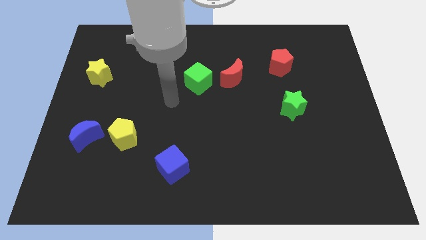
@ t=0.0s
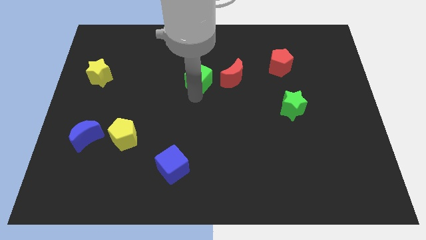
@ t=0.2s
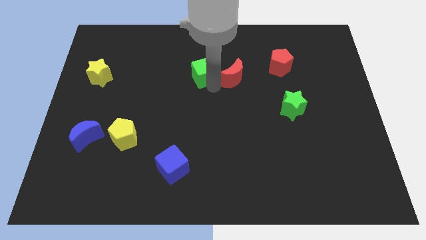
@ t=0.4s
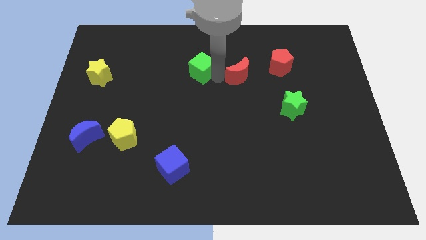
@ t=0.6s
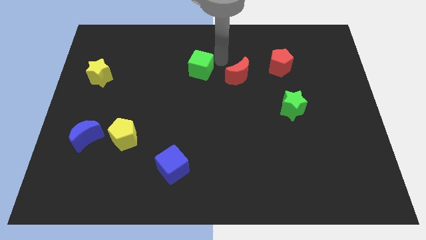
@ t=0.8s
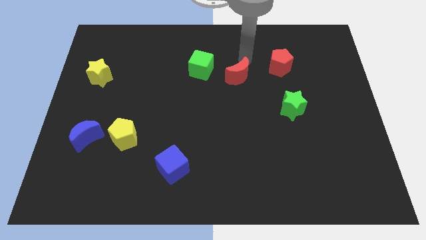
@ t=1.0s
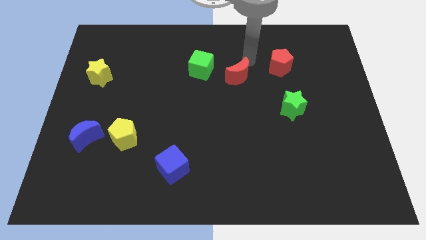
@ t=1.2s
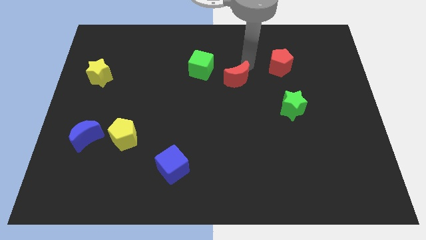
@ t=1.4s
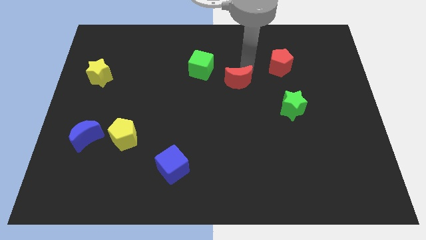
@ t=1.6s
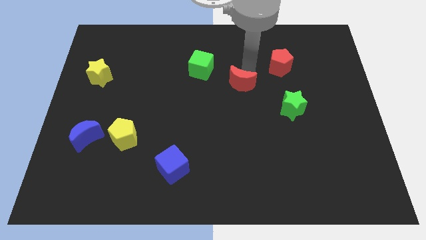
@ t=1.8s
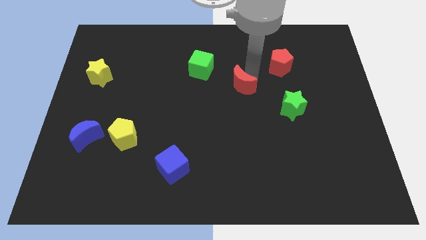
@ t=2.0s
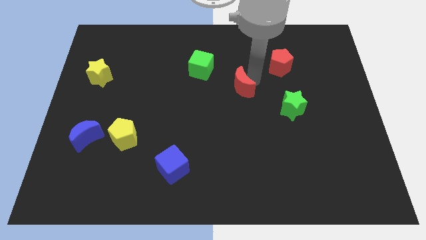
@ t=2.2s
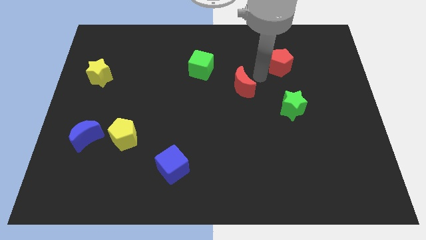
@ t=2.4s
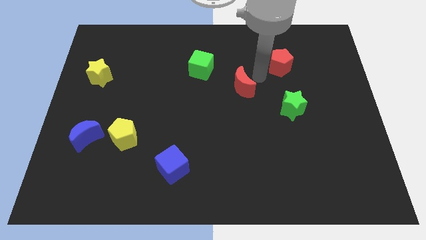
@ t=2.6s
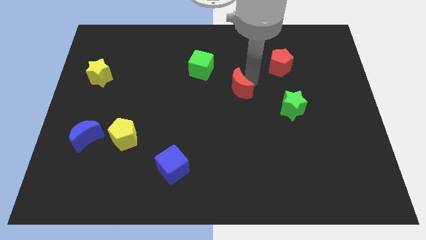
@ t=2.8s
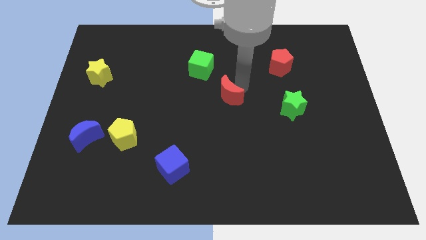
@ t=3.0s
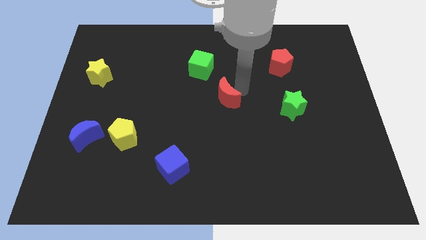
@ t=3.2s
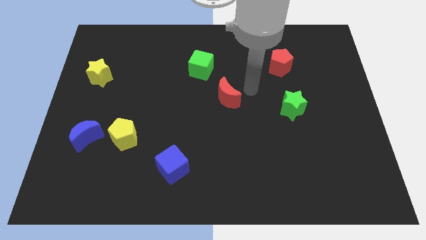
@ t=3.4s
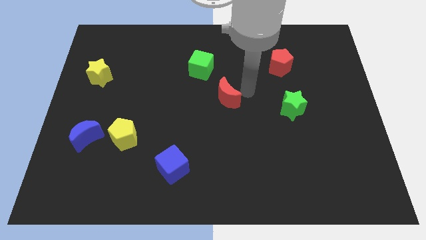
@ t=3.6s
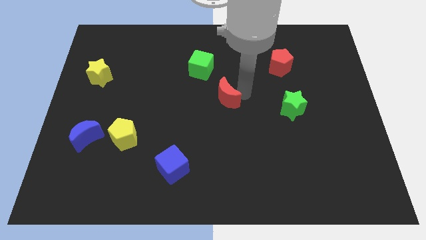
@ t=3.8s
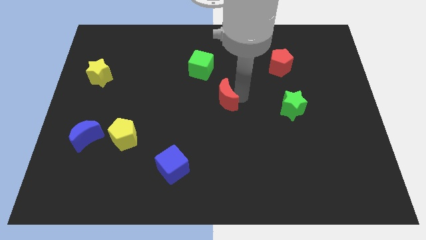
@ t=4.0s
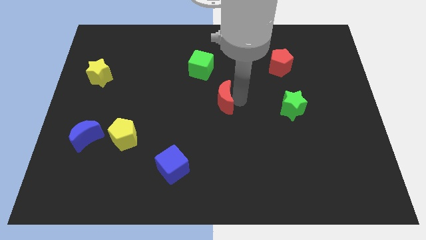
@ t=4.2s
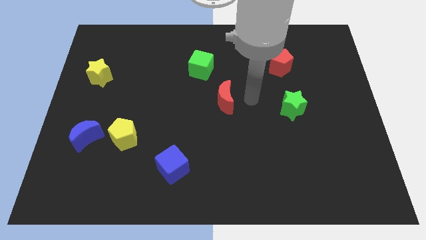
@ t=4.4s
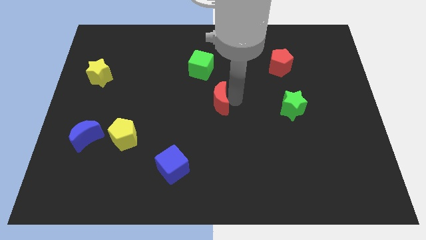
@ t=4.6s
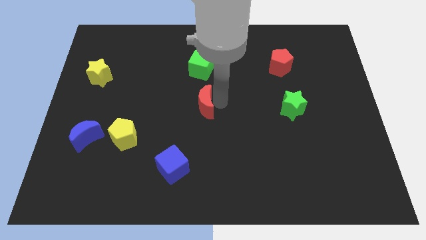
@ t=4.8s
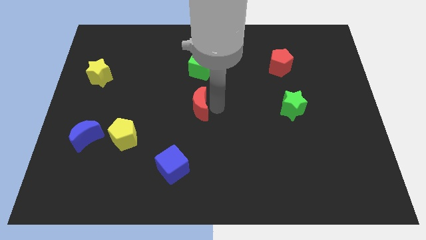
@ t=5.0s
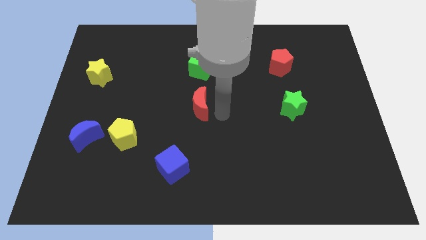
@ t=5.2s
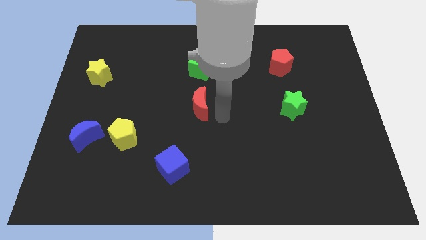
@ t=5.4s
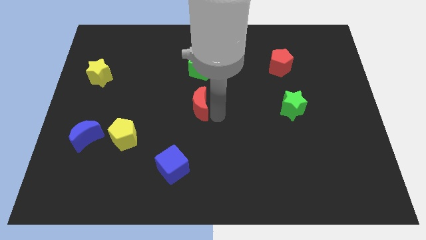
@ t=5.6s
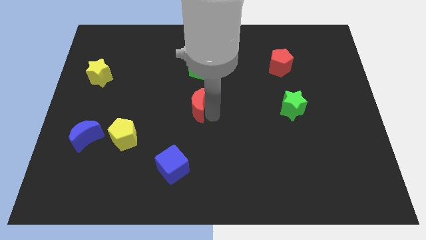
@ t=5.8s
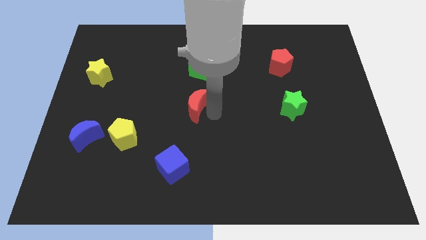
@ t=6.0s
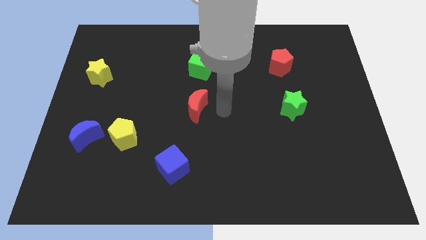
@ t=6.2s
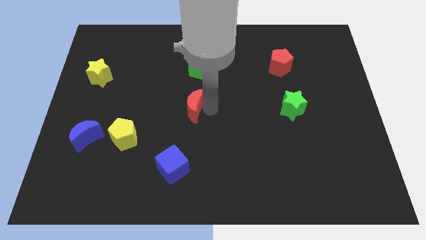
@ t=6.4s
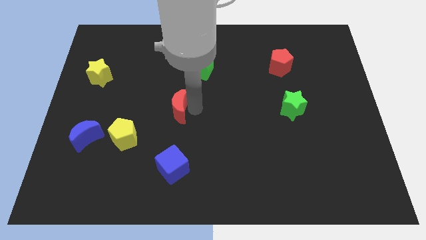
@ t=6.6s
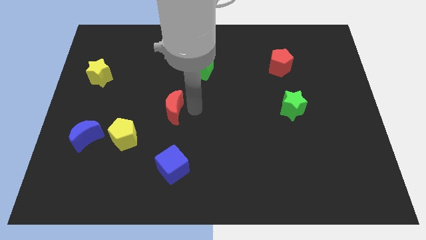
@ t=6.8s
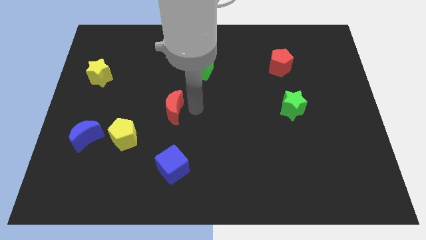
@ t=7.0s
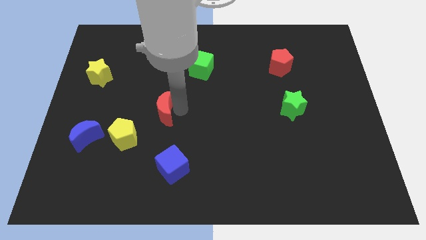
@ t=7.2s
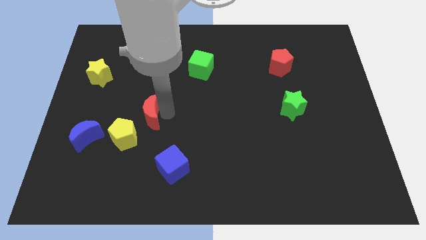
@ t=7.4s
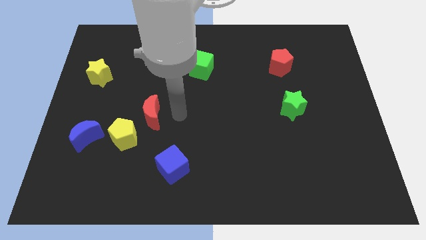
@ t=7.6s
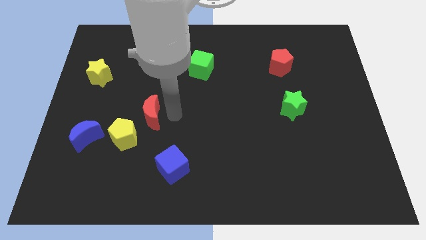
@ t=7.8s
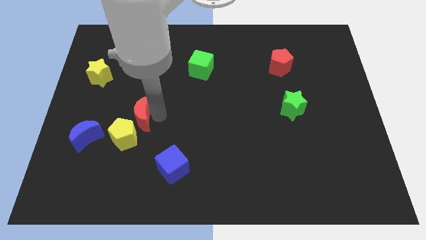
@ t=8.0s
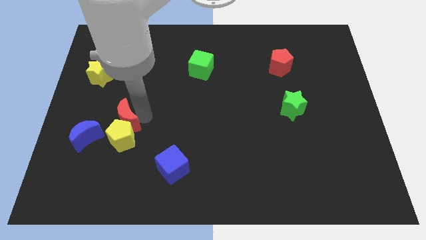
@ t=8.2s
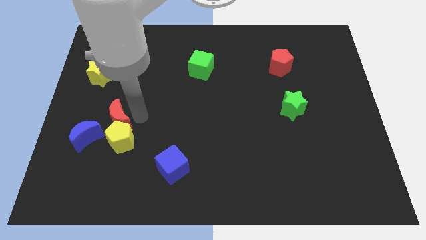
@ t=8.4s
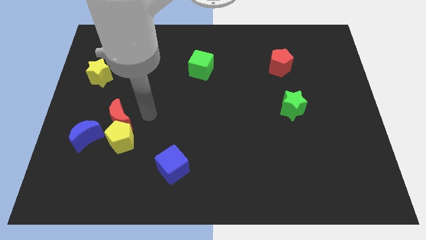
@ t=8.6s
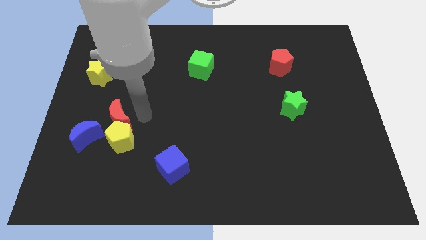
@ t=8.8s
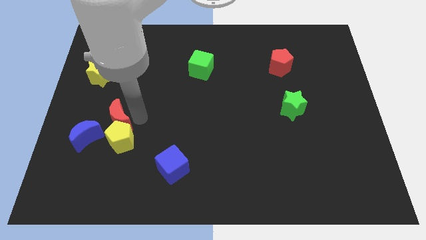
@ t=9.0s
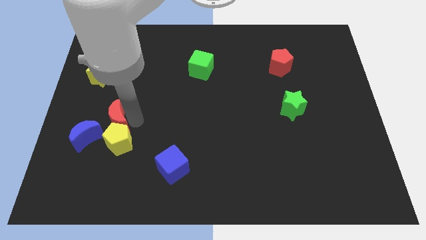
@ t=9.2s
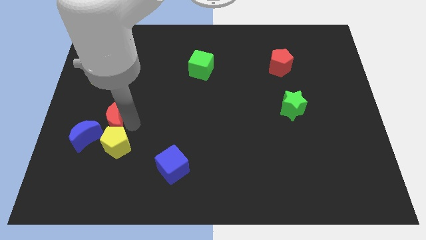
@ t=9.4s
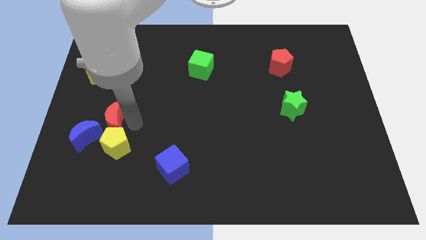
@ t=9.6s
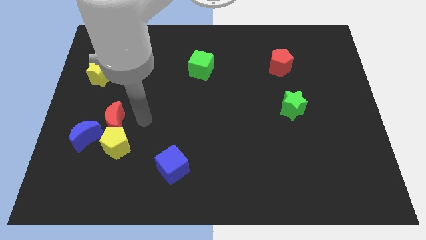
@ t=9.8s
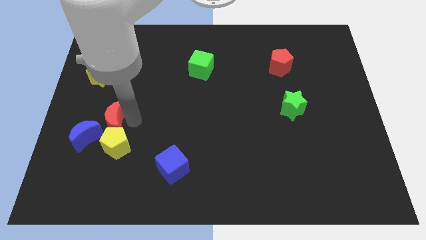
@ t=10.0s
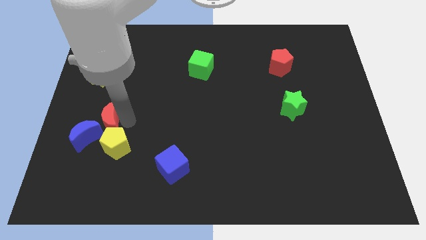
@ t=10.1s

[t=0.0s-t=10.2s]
push the red moon towards the blue moon

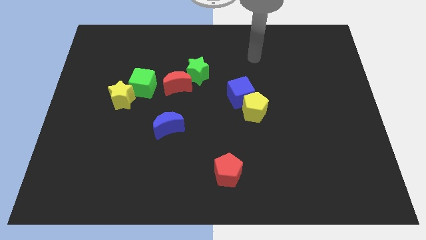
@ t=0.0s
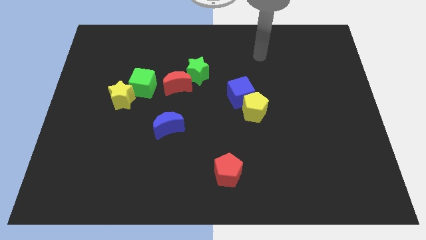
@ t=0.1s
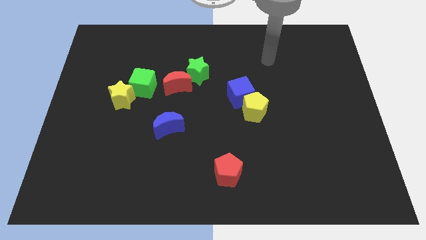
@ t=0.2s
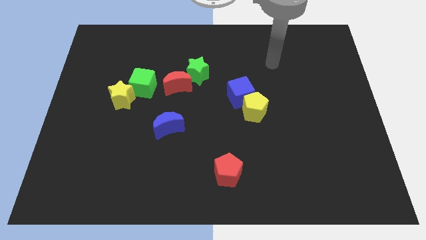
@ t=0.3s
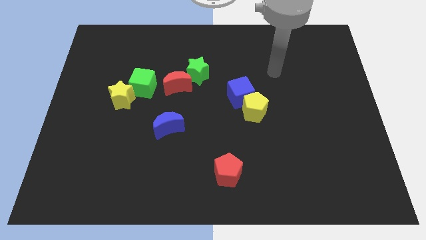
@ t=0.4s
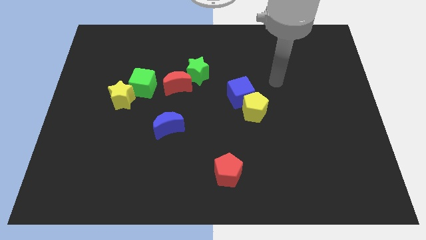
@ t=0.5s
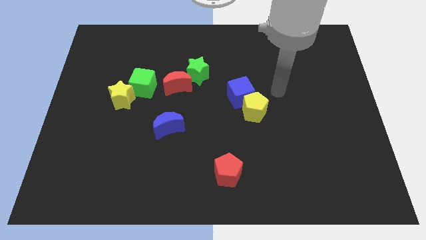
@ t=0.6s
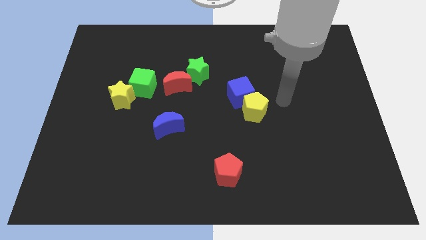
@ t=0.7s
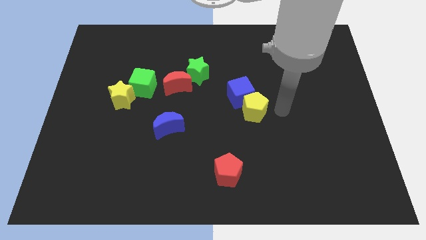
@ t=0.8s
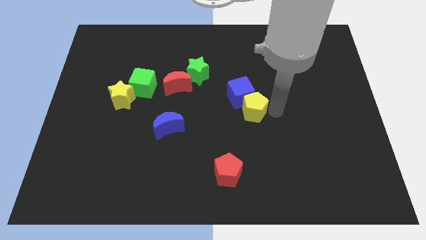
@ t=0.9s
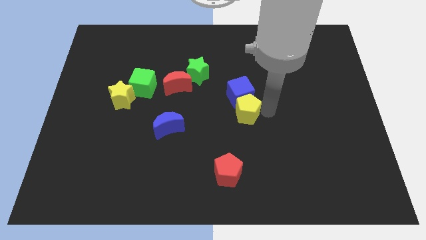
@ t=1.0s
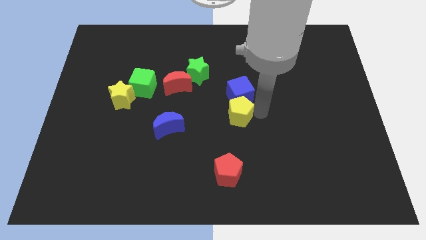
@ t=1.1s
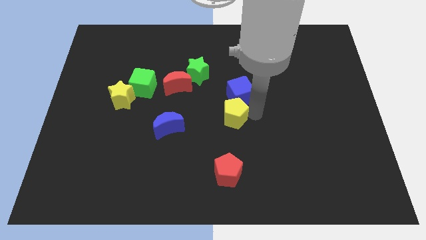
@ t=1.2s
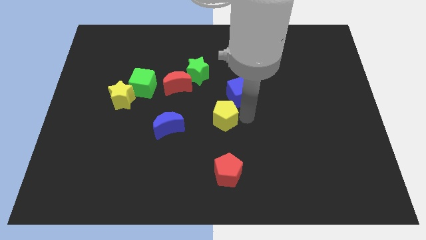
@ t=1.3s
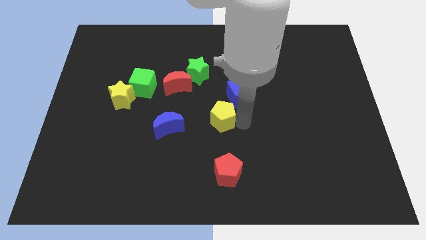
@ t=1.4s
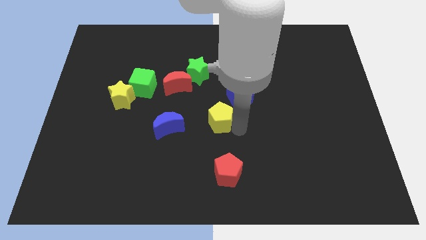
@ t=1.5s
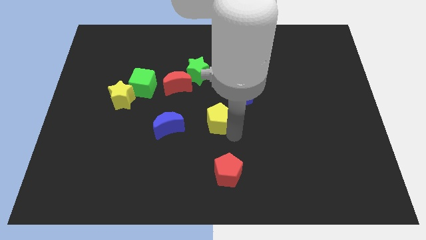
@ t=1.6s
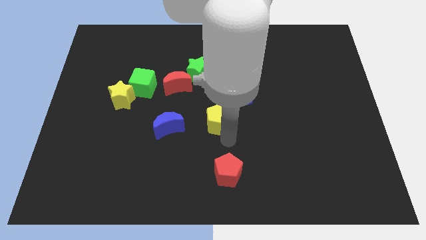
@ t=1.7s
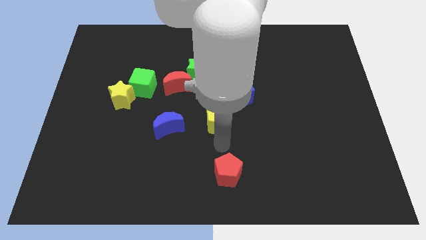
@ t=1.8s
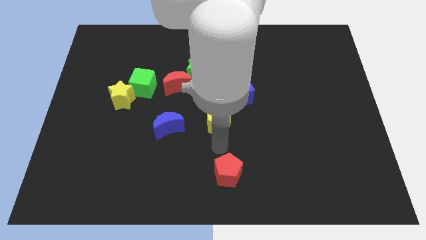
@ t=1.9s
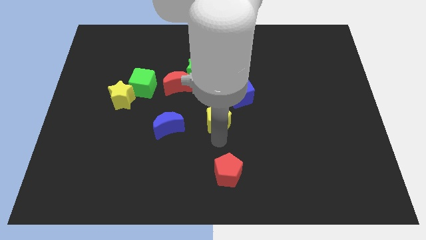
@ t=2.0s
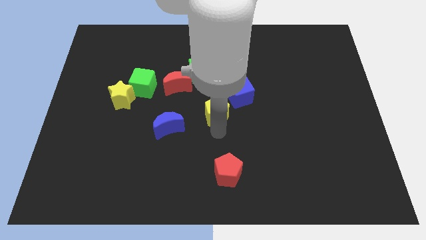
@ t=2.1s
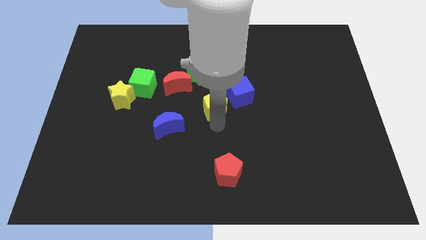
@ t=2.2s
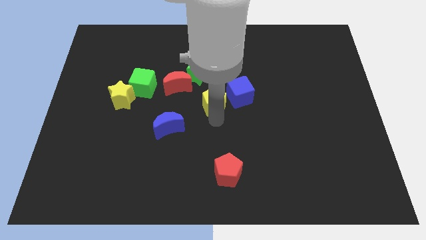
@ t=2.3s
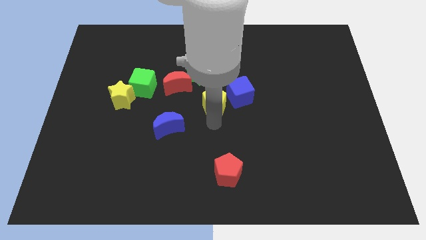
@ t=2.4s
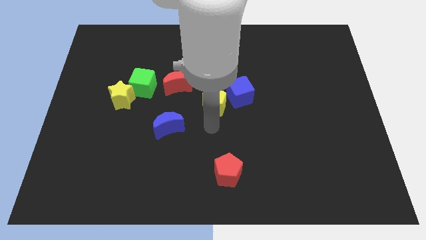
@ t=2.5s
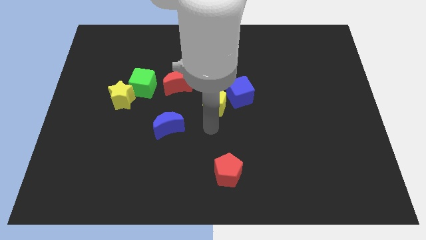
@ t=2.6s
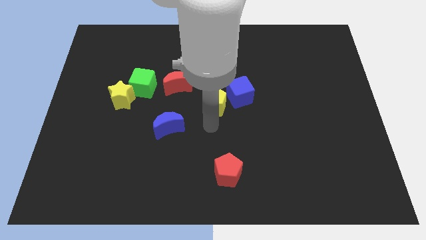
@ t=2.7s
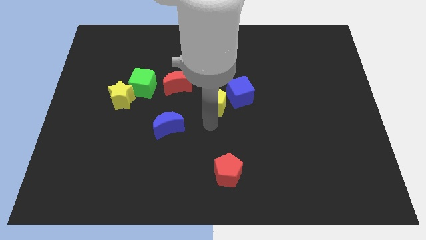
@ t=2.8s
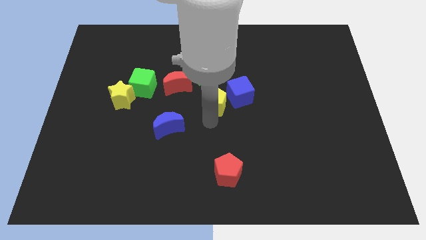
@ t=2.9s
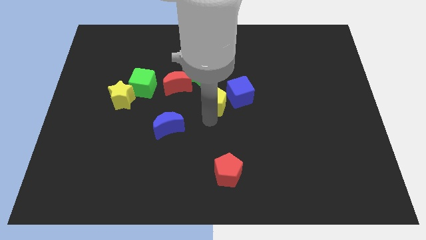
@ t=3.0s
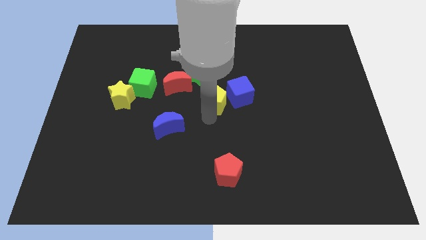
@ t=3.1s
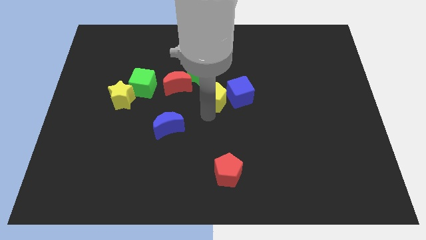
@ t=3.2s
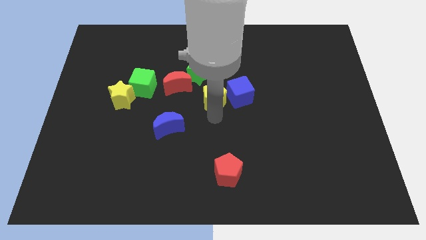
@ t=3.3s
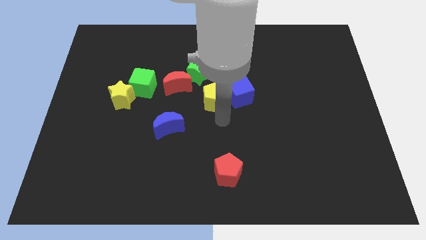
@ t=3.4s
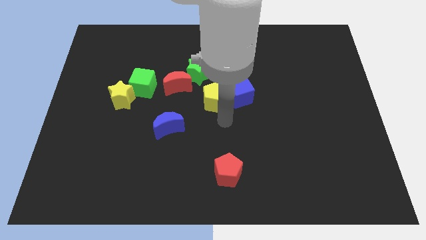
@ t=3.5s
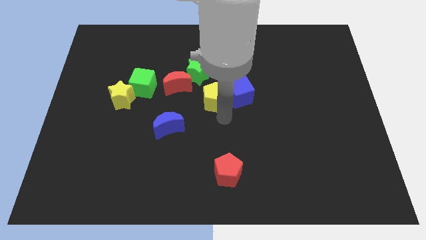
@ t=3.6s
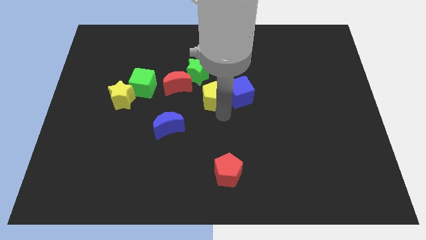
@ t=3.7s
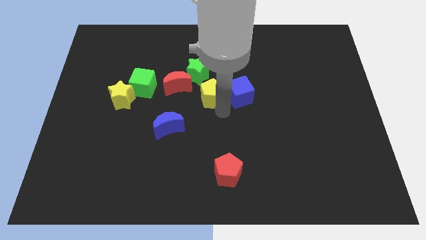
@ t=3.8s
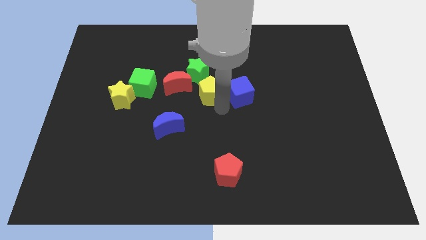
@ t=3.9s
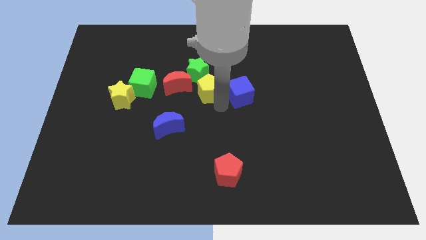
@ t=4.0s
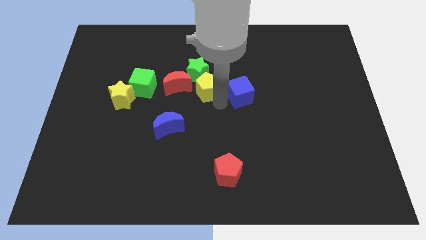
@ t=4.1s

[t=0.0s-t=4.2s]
push the yellow pentagon to the green star
